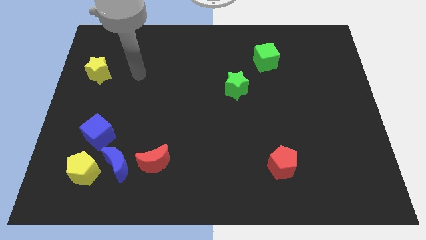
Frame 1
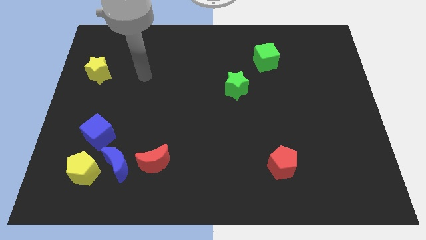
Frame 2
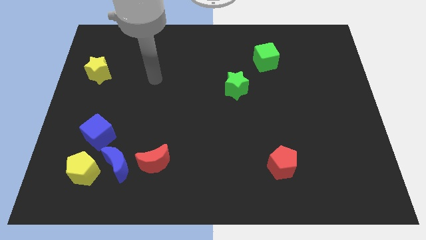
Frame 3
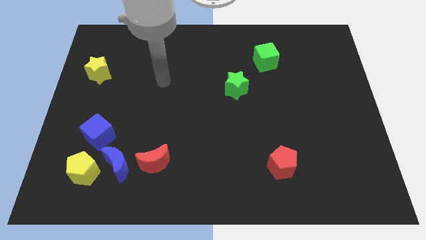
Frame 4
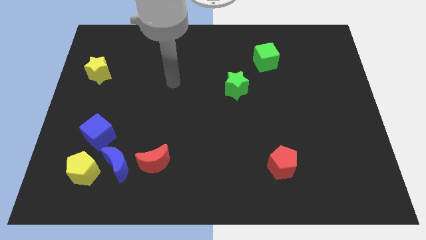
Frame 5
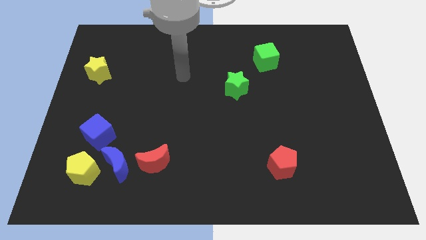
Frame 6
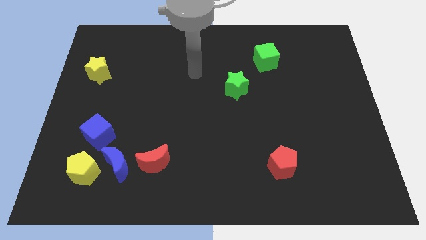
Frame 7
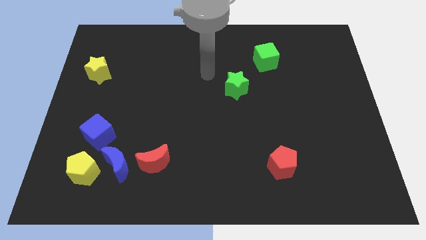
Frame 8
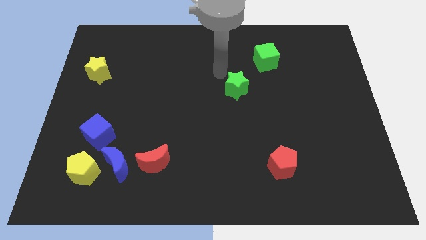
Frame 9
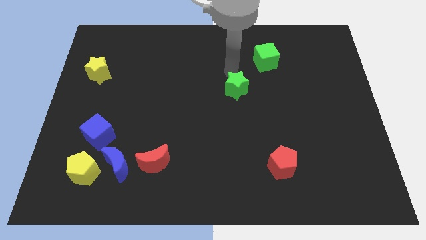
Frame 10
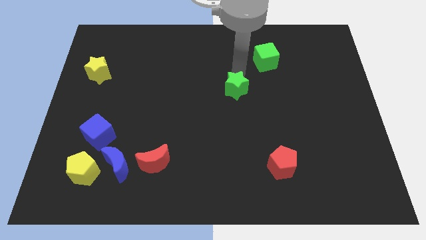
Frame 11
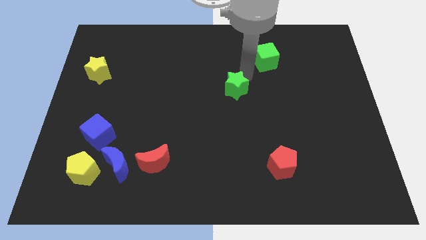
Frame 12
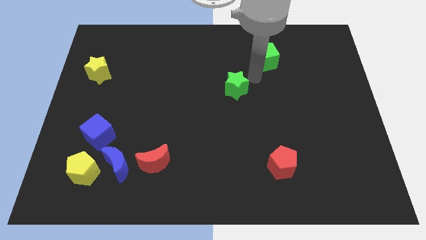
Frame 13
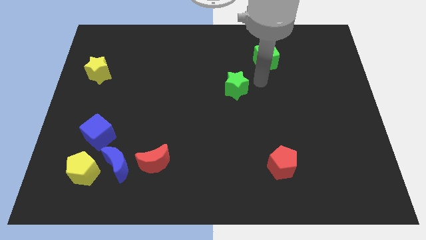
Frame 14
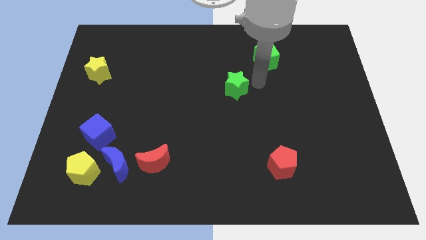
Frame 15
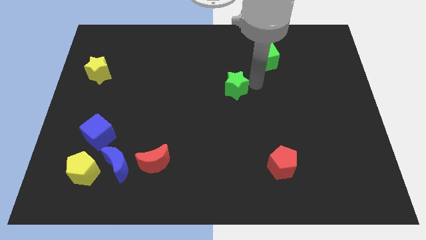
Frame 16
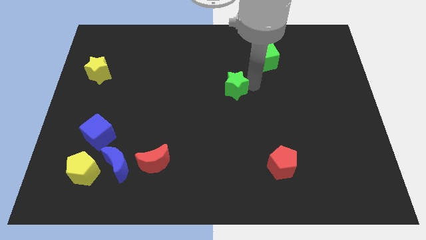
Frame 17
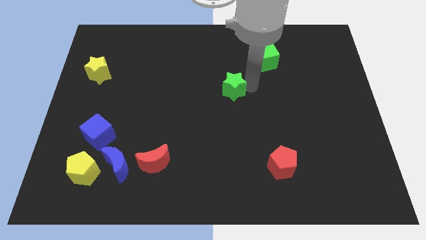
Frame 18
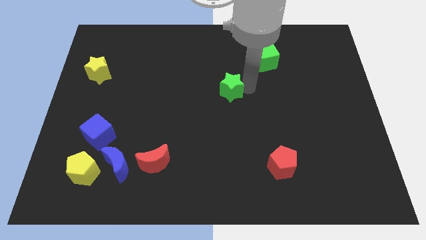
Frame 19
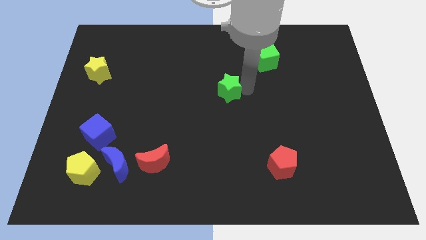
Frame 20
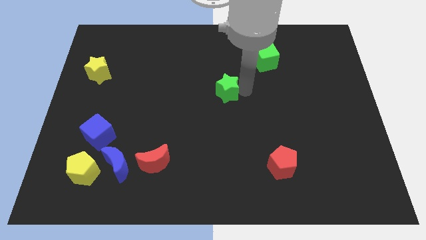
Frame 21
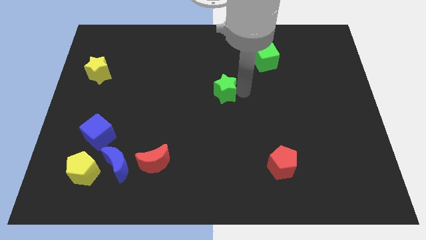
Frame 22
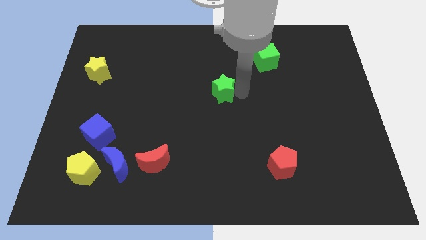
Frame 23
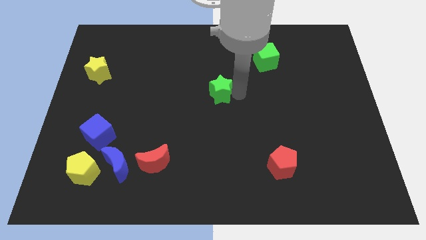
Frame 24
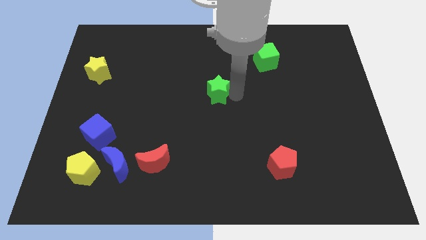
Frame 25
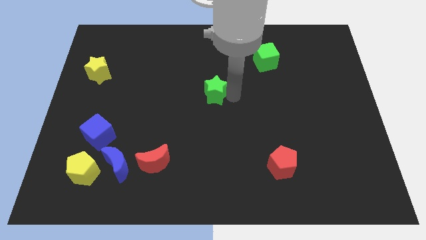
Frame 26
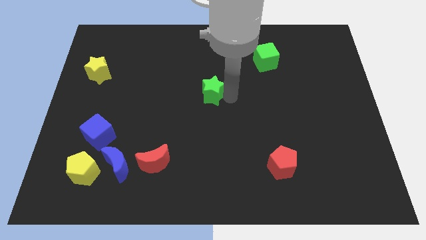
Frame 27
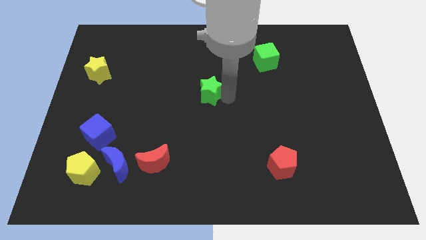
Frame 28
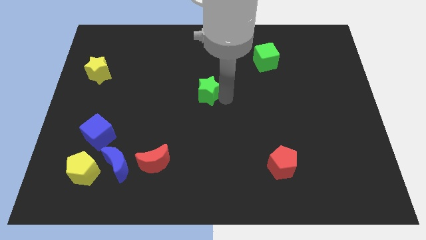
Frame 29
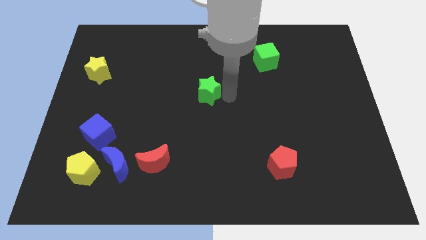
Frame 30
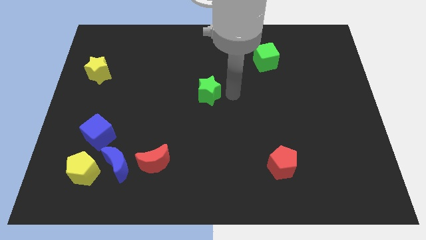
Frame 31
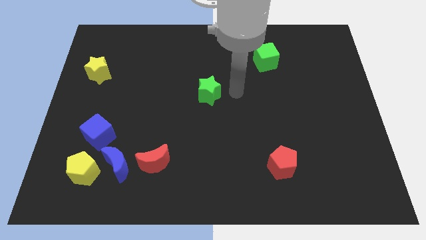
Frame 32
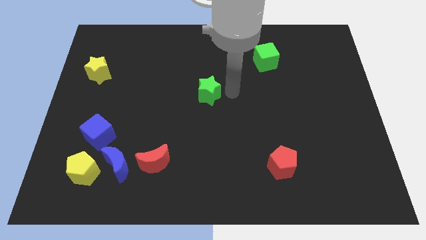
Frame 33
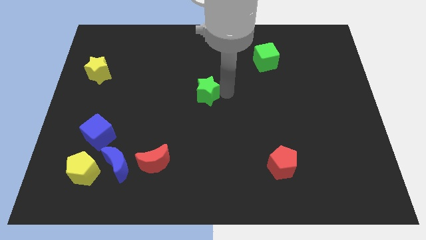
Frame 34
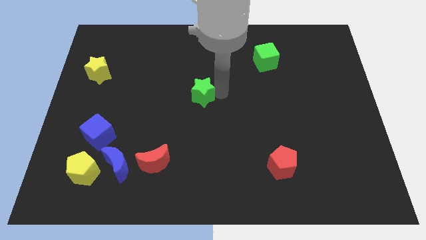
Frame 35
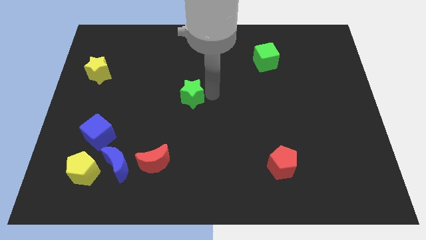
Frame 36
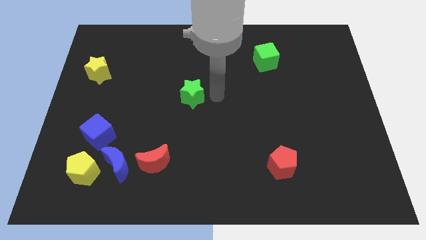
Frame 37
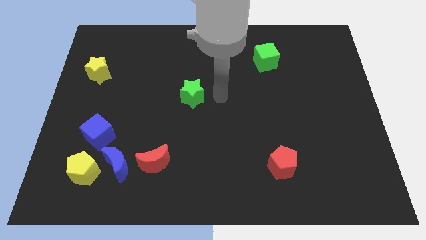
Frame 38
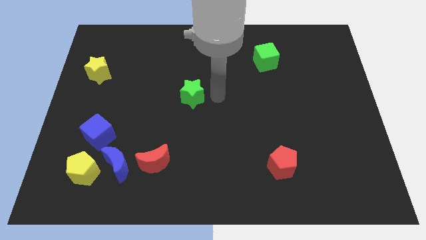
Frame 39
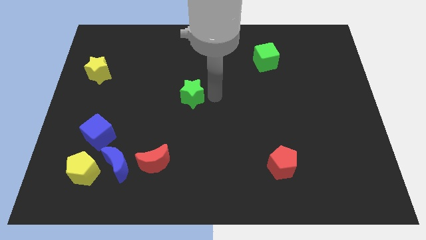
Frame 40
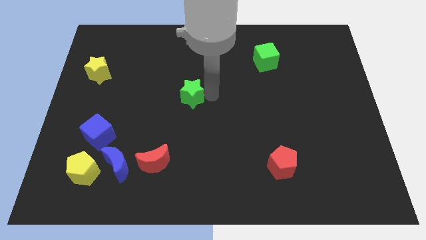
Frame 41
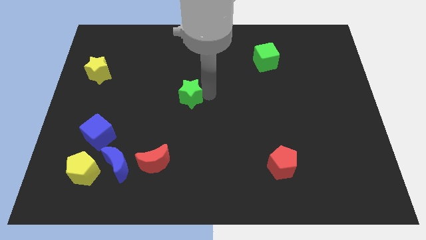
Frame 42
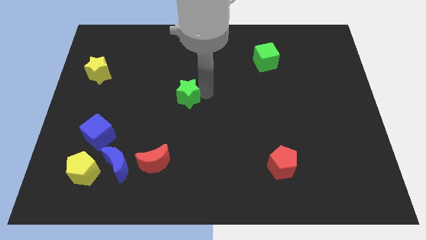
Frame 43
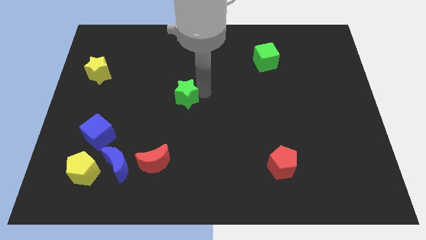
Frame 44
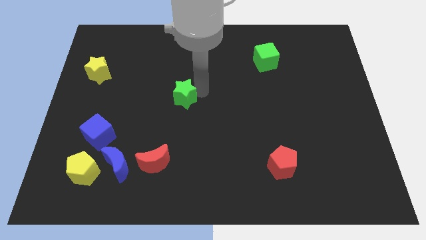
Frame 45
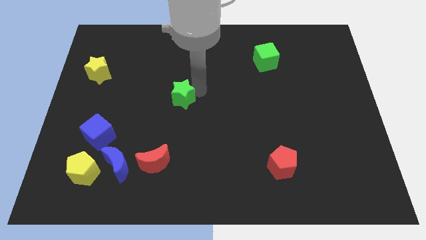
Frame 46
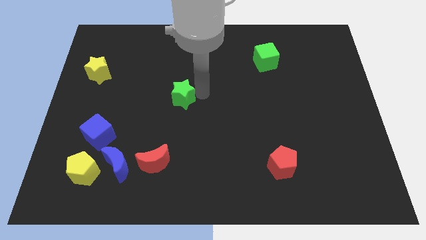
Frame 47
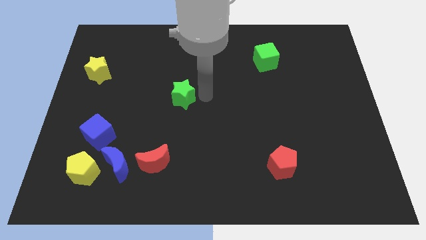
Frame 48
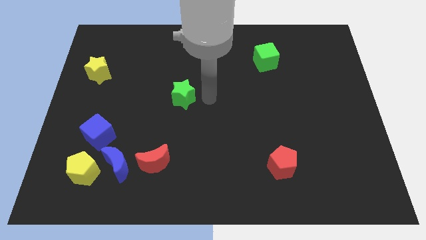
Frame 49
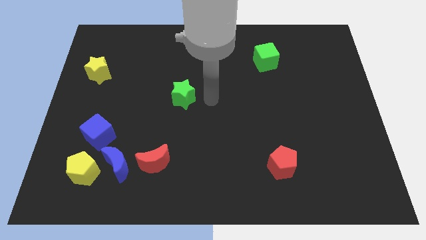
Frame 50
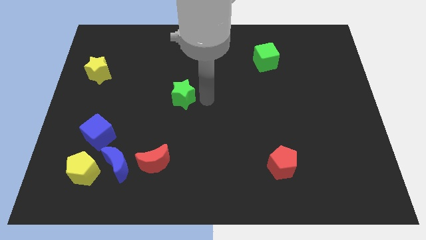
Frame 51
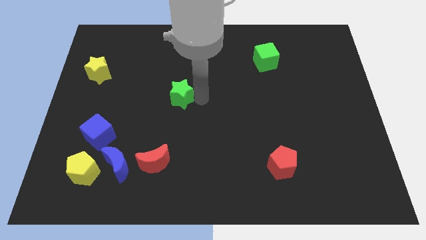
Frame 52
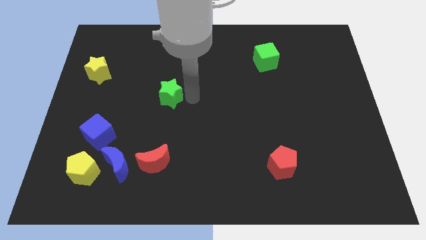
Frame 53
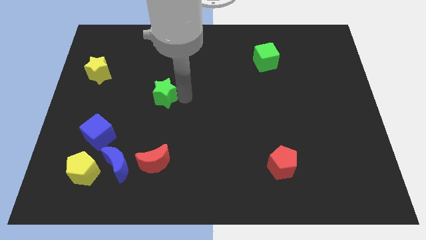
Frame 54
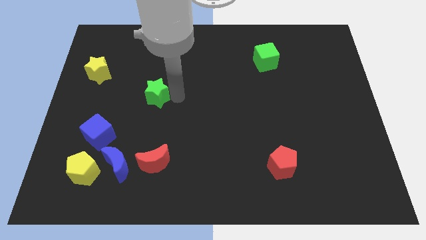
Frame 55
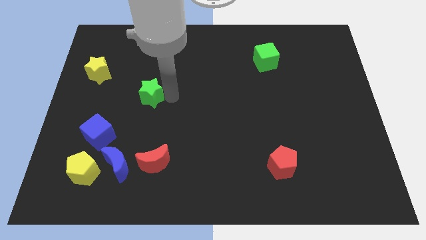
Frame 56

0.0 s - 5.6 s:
slide the green star left

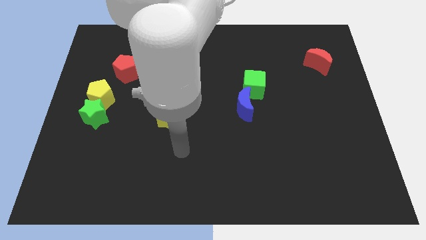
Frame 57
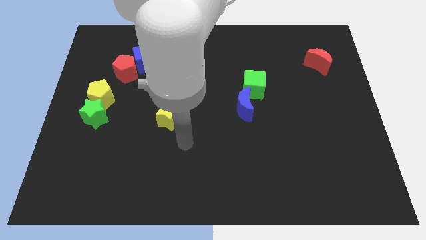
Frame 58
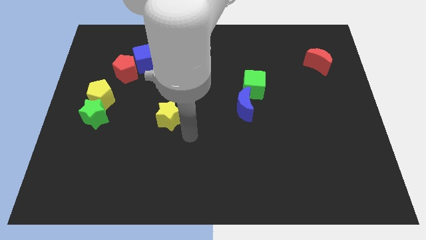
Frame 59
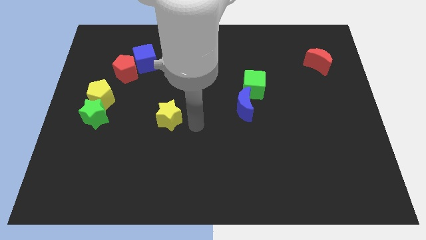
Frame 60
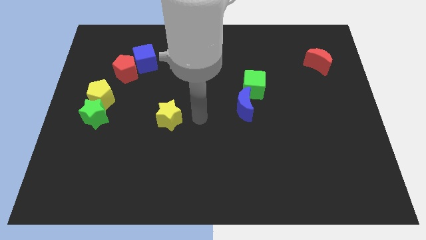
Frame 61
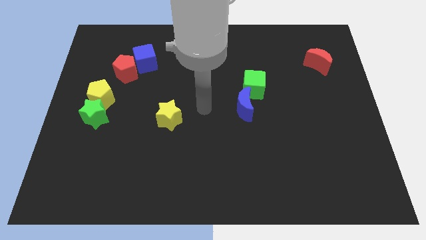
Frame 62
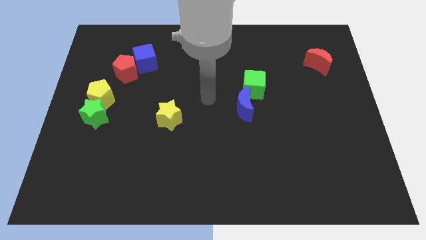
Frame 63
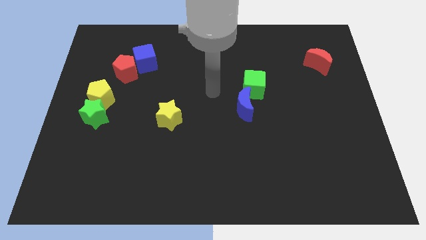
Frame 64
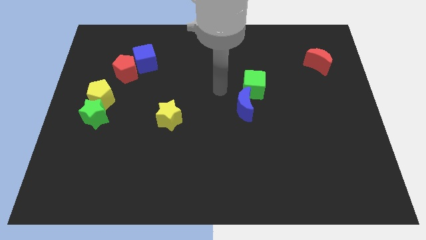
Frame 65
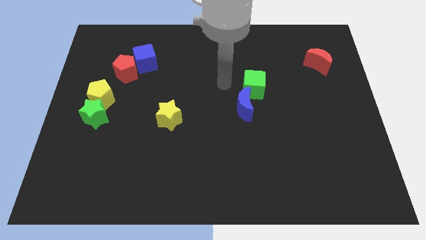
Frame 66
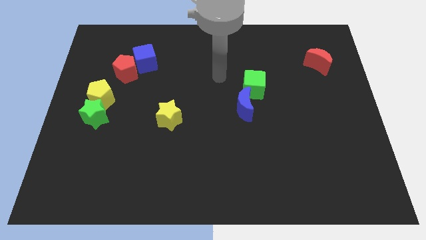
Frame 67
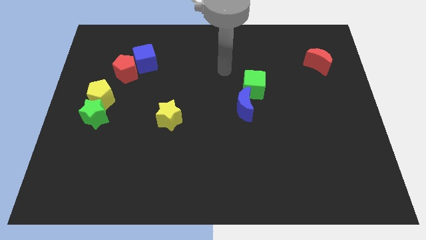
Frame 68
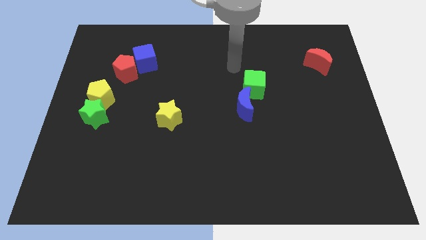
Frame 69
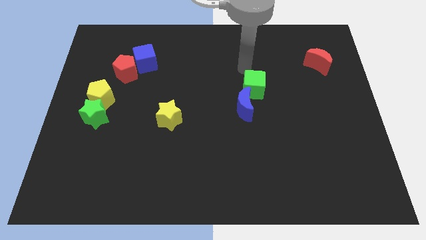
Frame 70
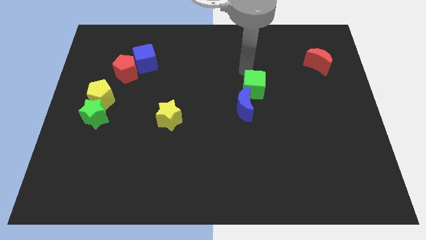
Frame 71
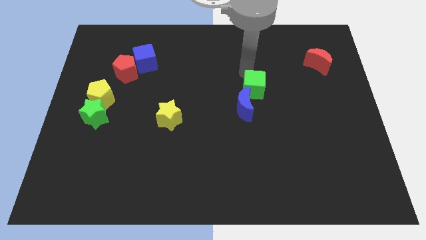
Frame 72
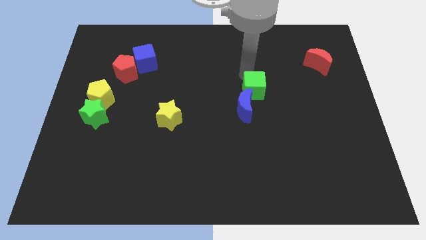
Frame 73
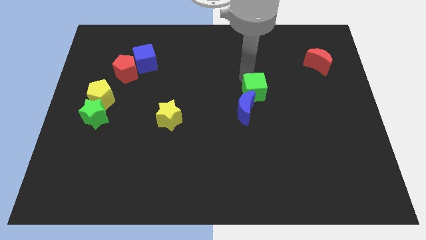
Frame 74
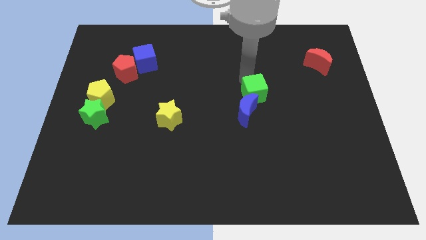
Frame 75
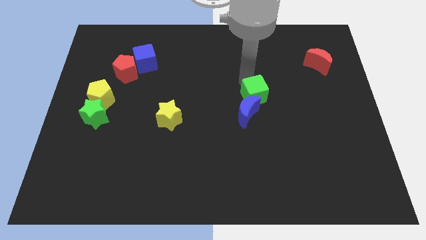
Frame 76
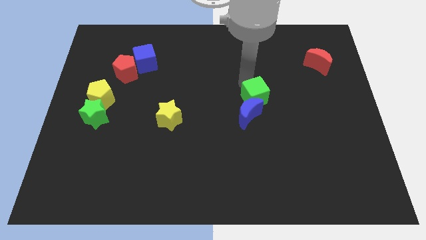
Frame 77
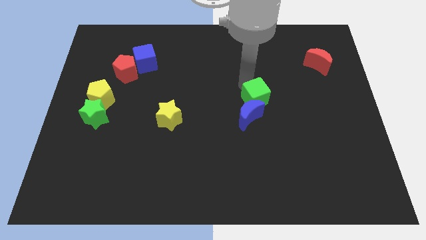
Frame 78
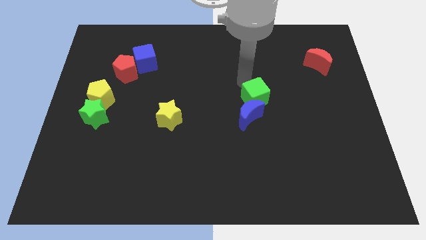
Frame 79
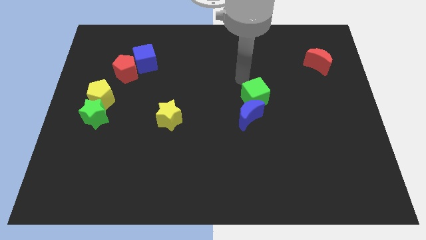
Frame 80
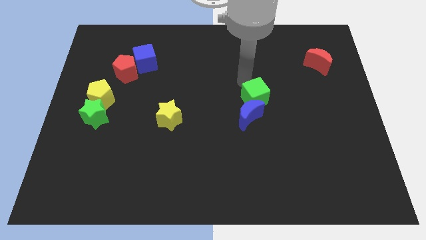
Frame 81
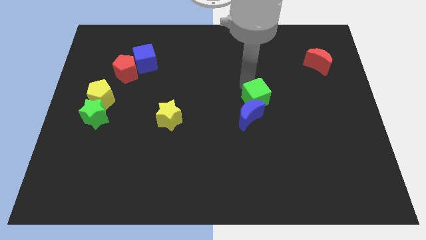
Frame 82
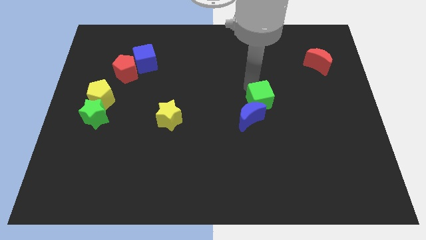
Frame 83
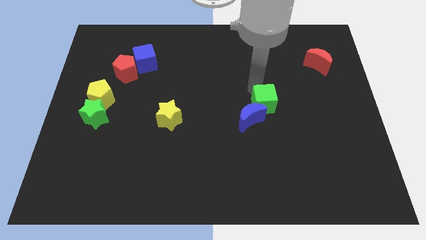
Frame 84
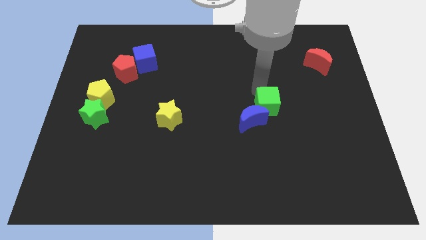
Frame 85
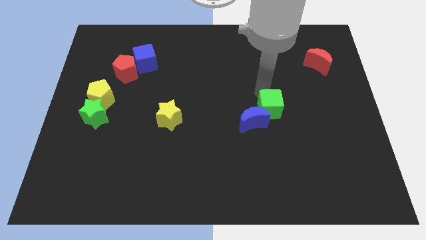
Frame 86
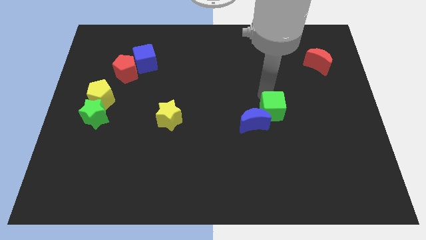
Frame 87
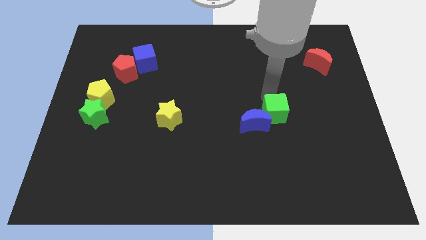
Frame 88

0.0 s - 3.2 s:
slightly slide the green cube down
